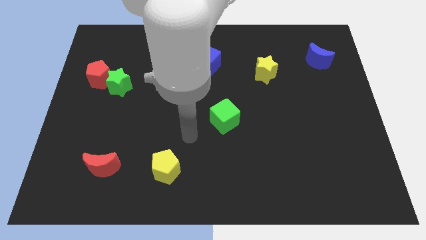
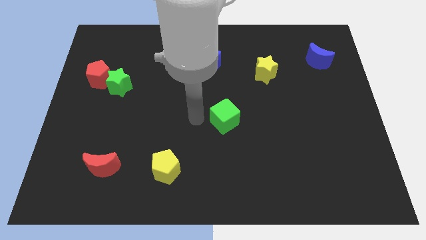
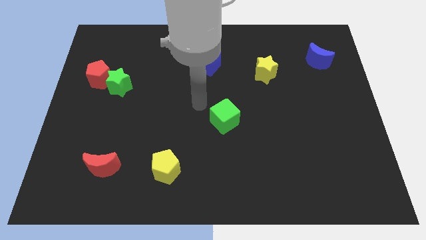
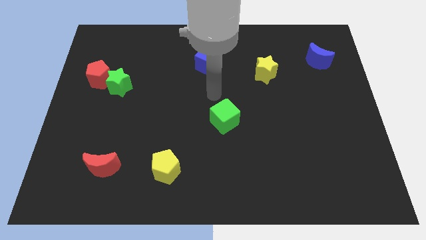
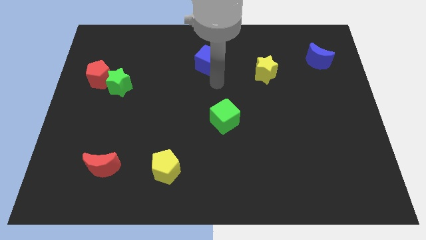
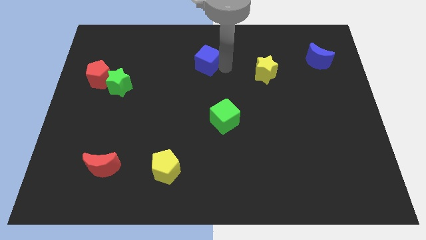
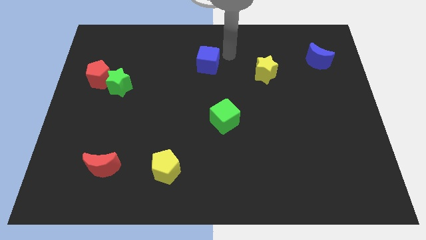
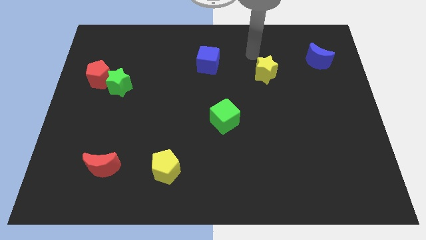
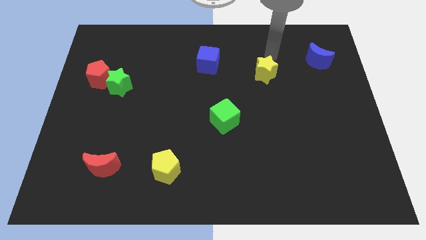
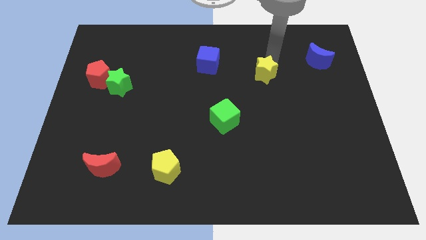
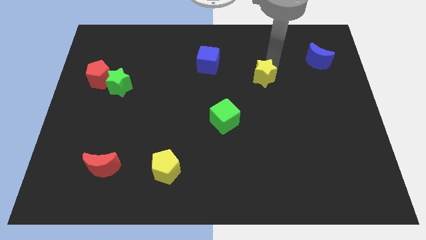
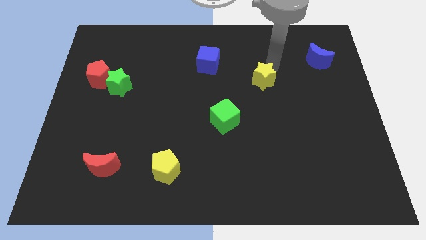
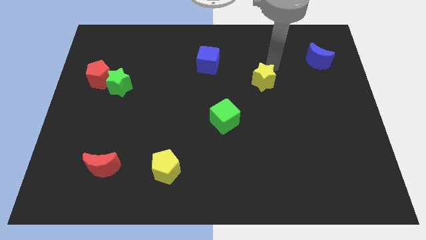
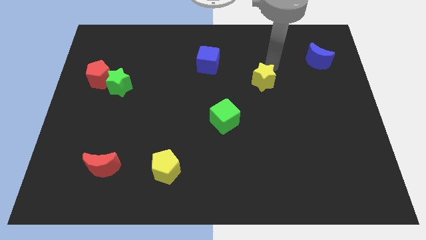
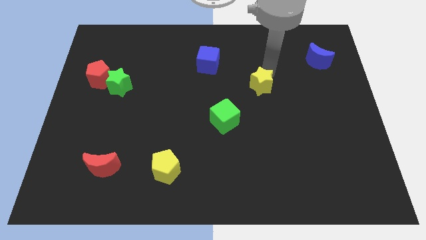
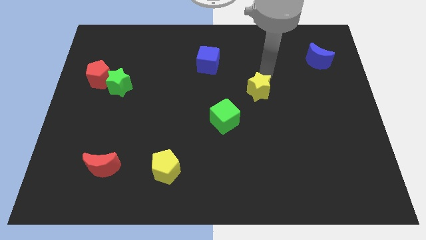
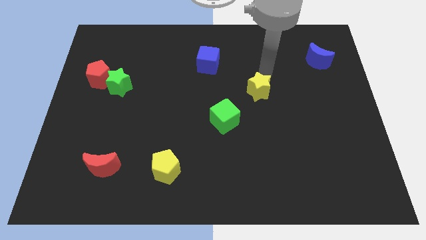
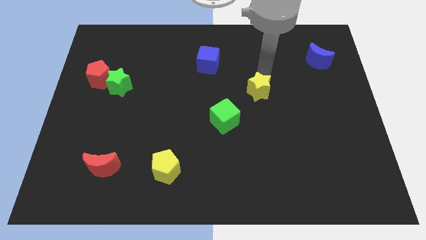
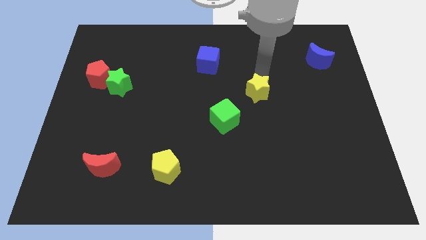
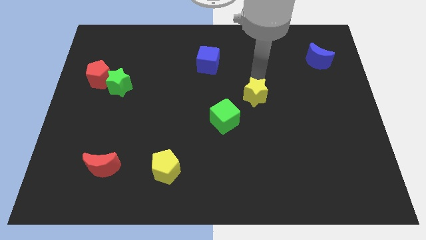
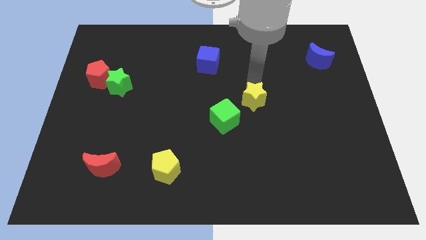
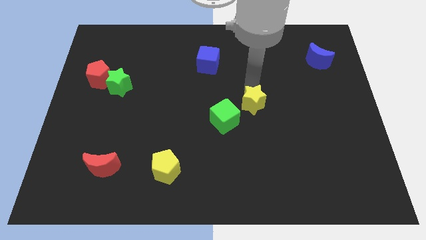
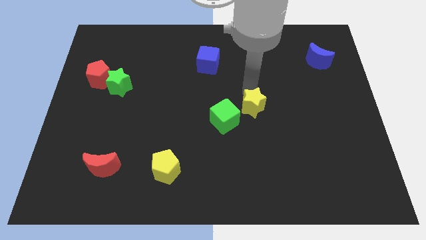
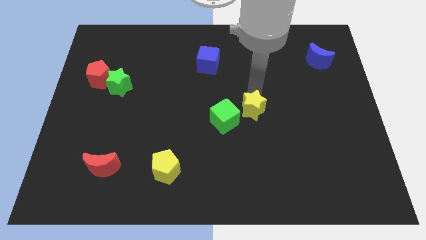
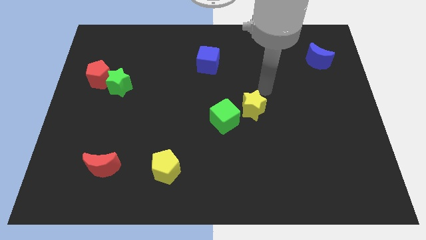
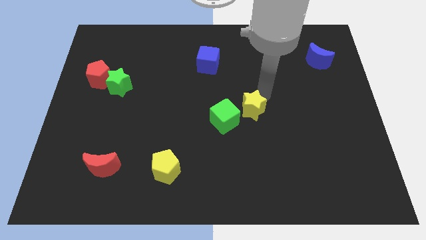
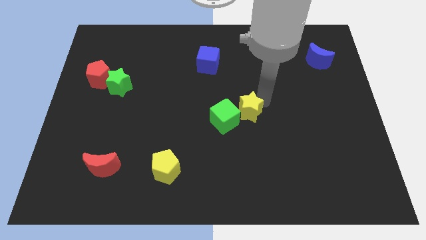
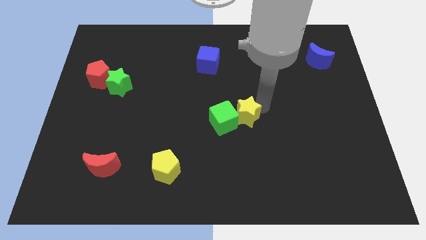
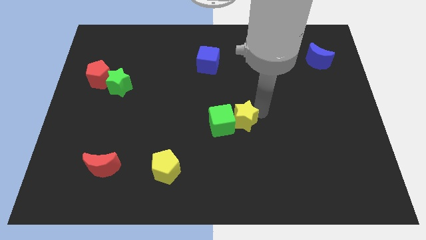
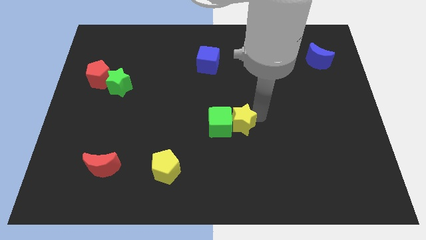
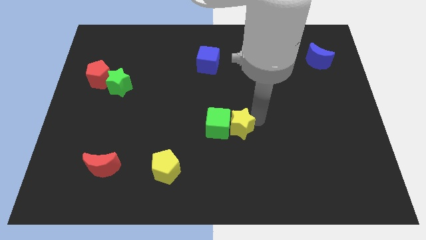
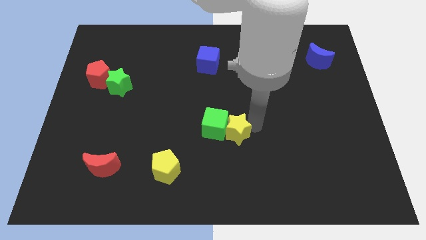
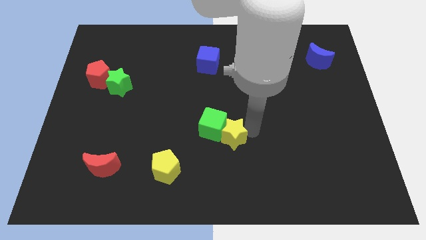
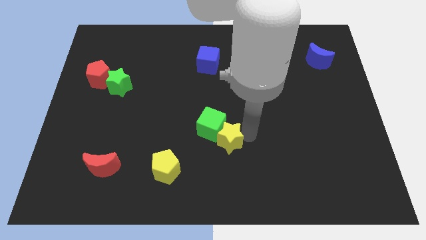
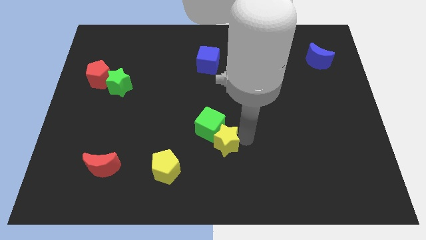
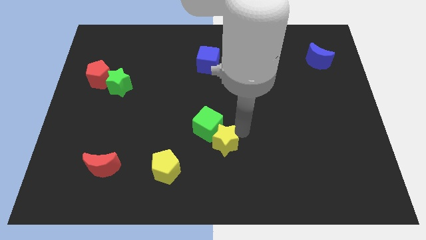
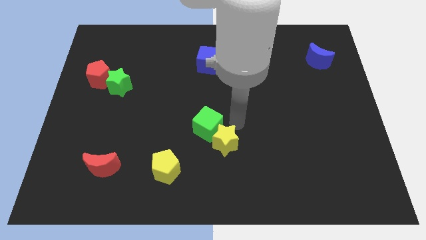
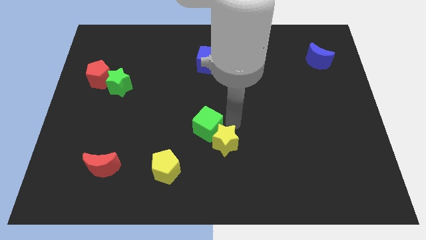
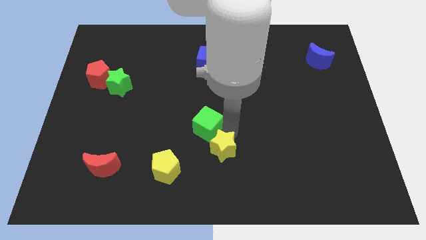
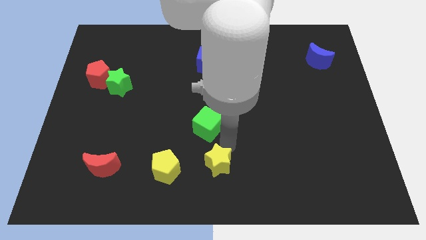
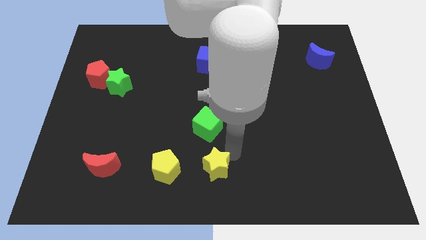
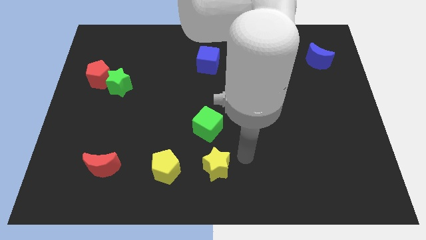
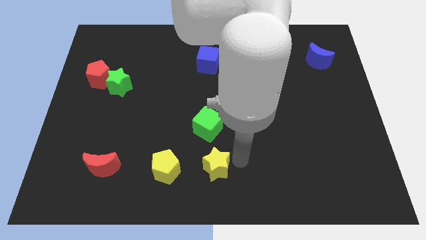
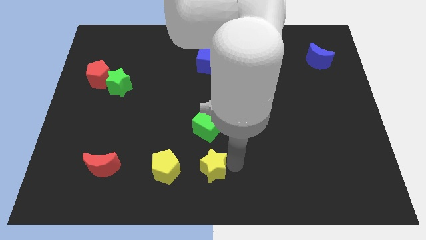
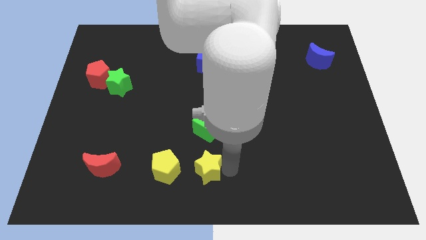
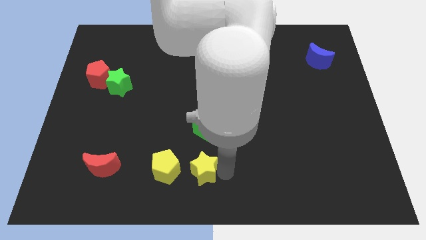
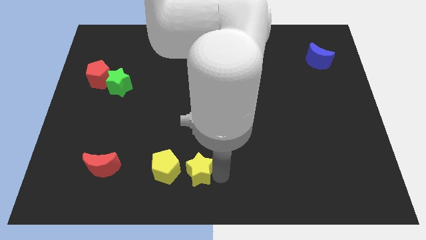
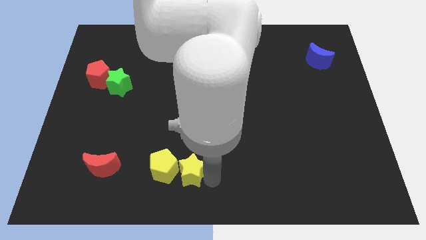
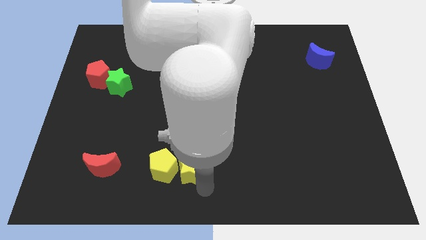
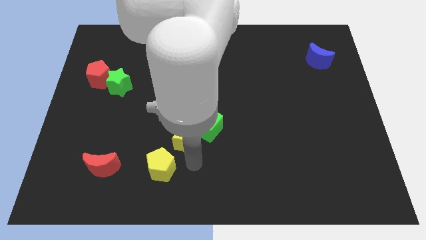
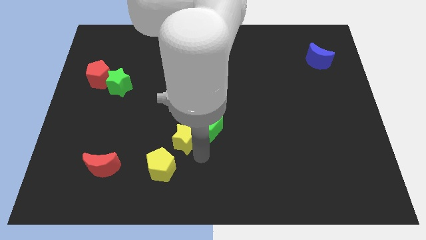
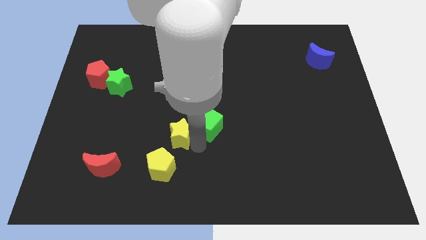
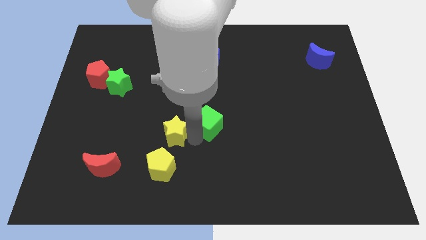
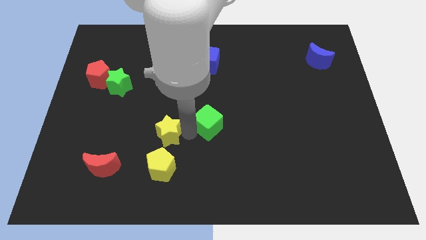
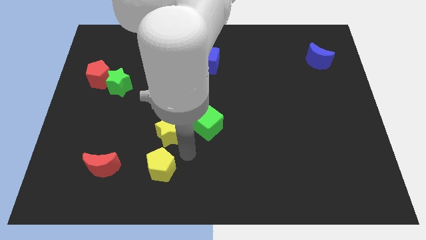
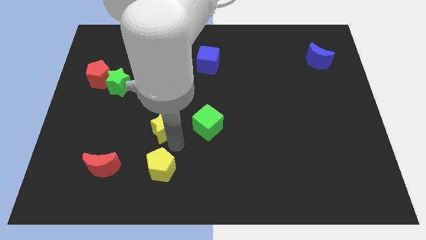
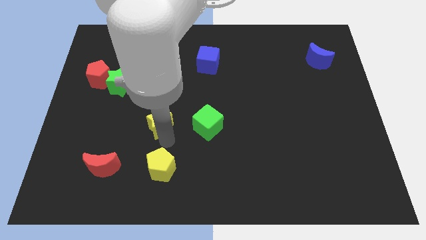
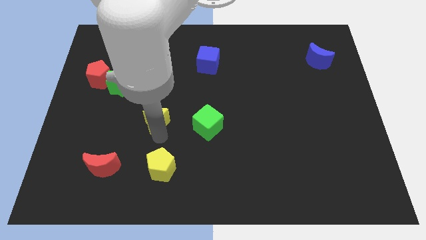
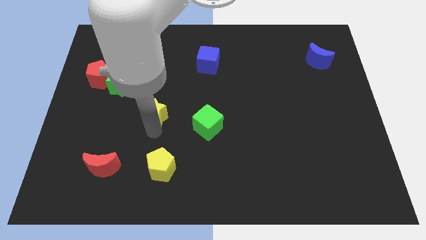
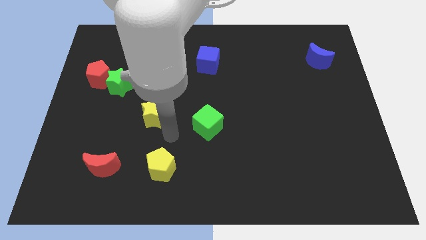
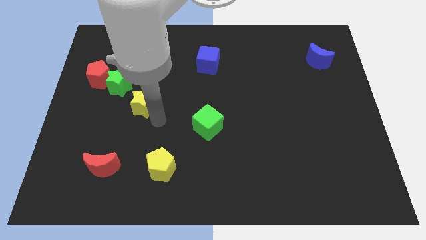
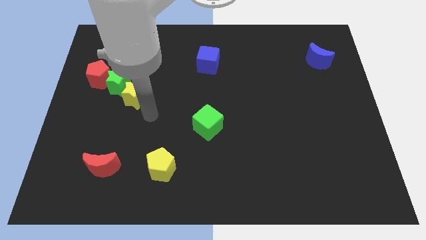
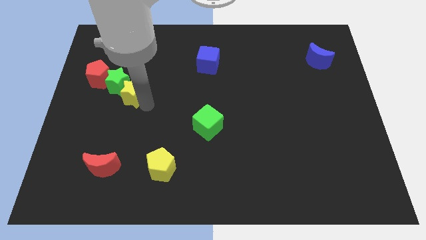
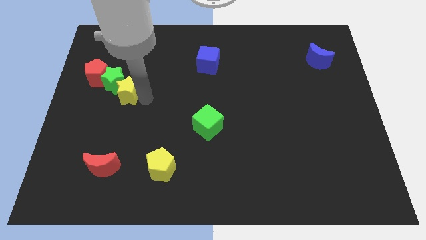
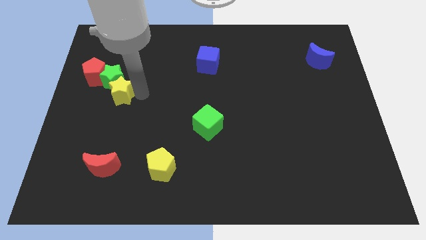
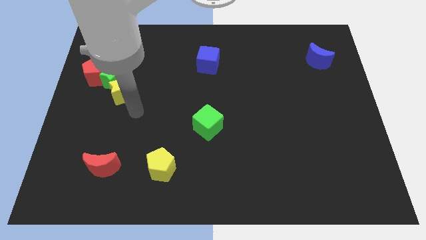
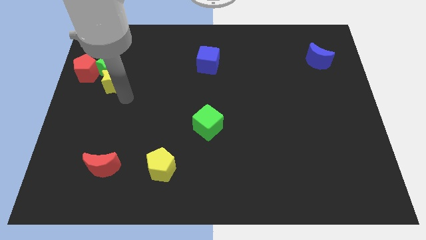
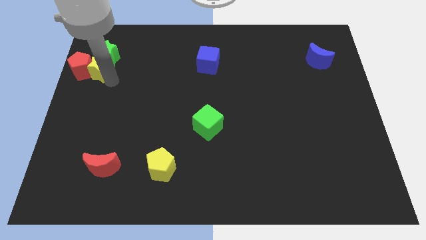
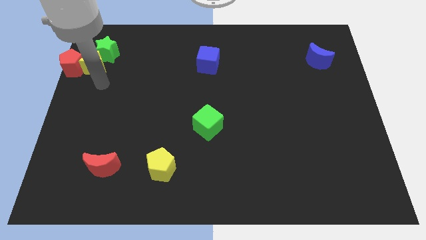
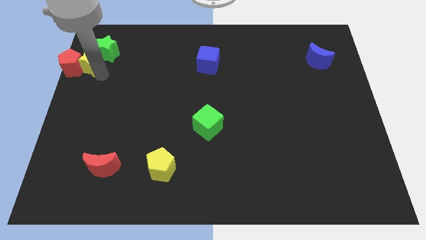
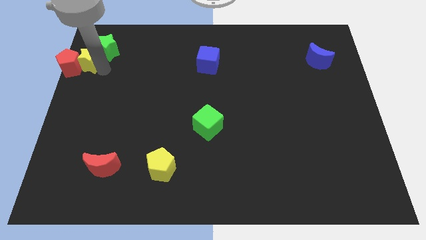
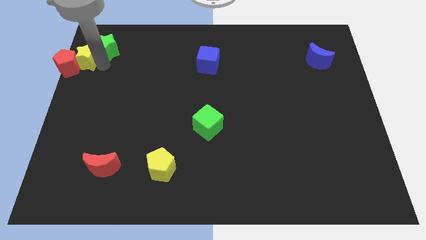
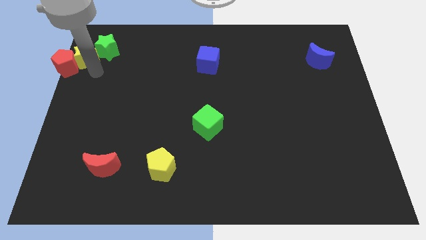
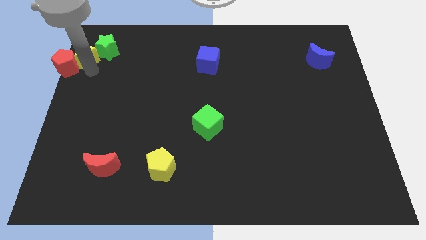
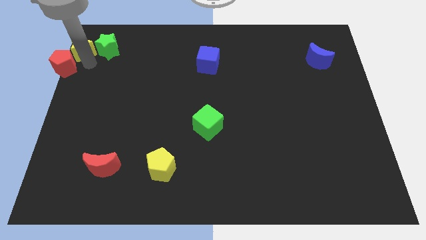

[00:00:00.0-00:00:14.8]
slide the yellow star to the upper left corner
